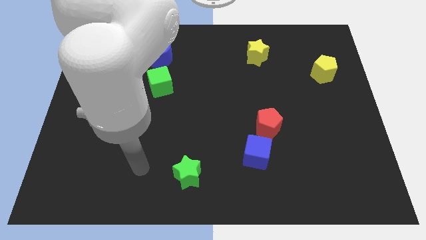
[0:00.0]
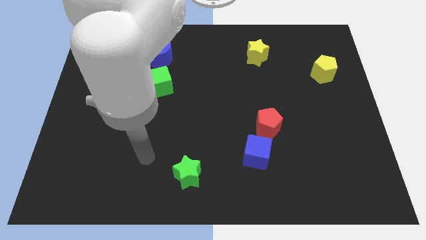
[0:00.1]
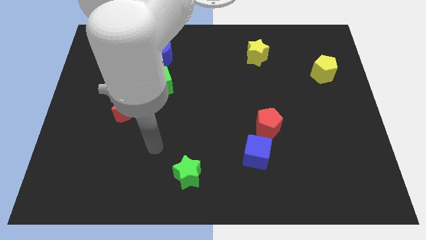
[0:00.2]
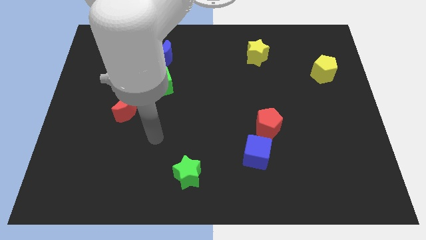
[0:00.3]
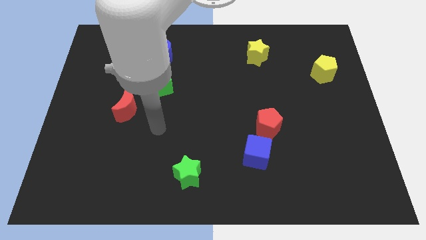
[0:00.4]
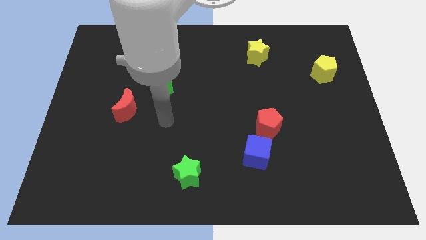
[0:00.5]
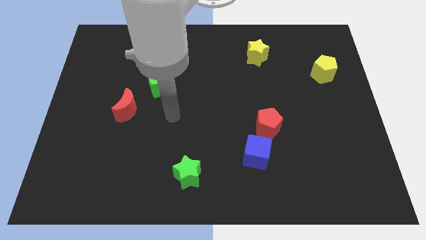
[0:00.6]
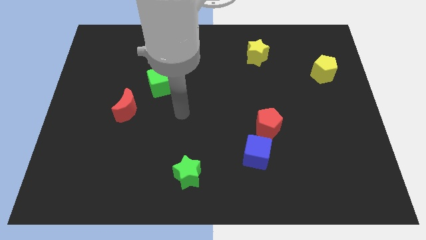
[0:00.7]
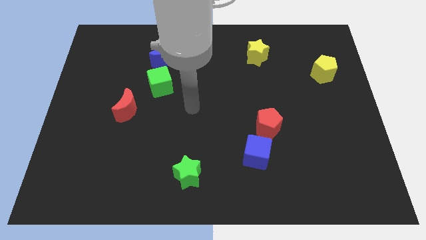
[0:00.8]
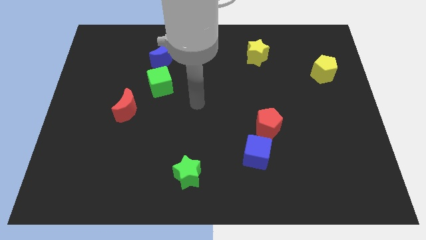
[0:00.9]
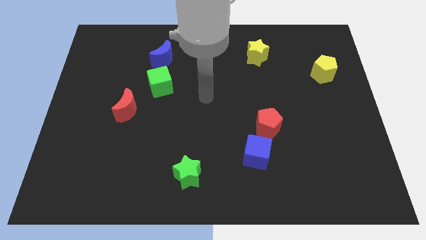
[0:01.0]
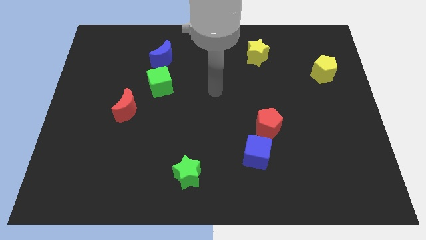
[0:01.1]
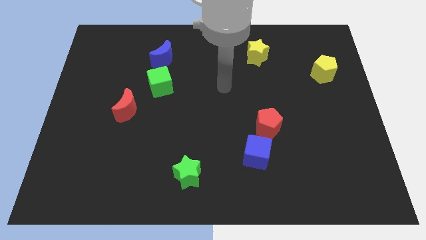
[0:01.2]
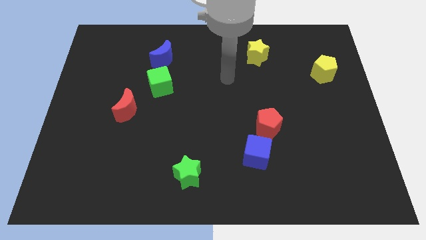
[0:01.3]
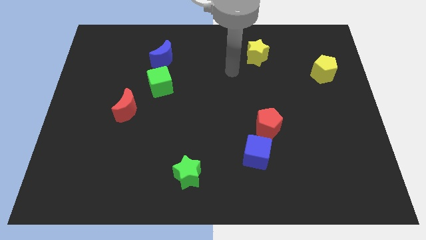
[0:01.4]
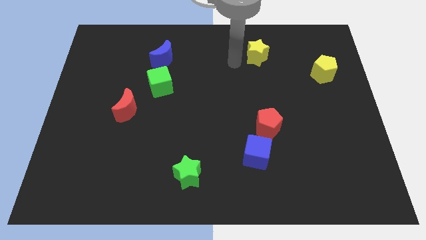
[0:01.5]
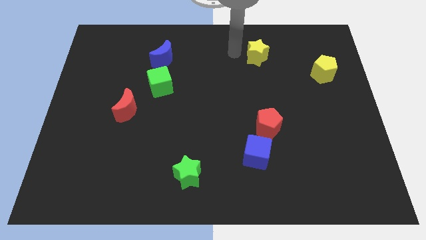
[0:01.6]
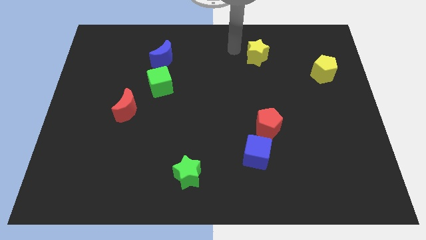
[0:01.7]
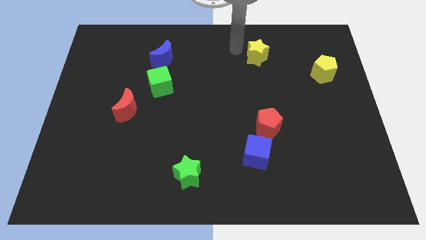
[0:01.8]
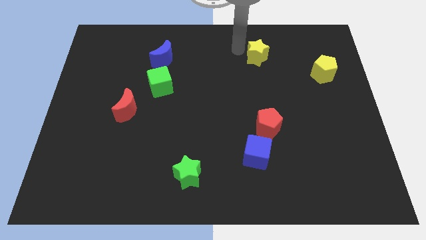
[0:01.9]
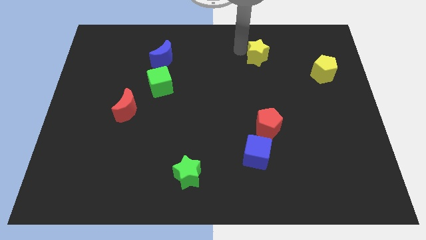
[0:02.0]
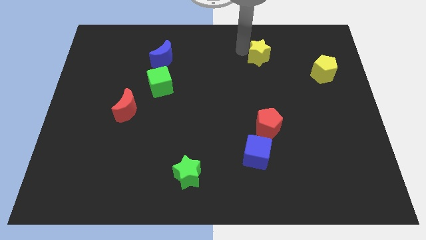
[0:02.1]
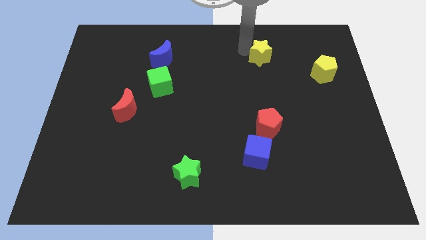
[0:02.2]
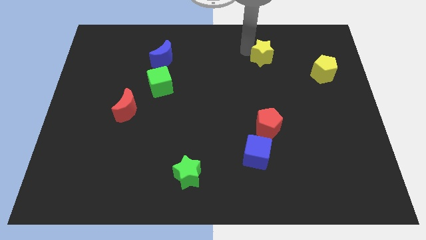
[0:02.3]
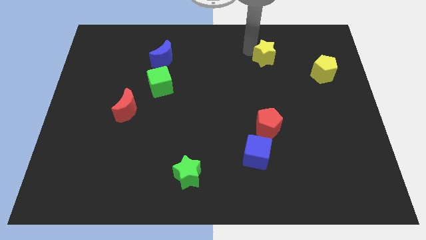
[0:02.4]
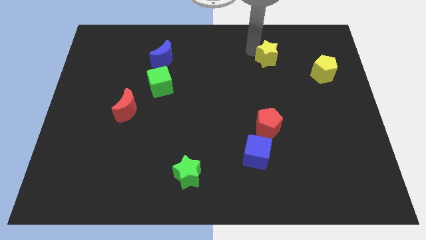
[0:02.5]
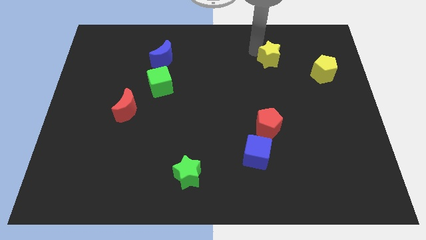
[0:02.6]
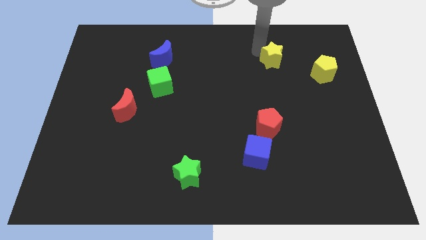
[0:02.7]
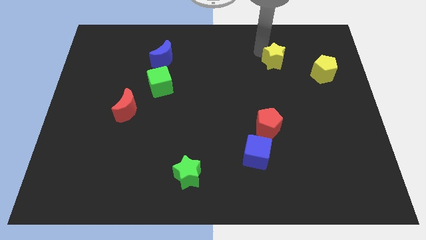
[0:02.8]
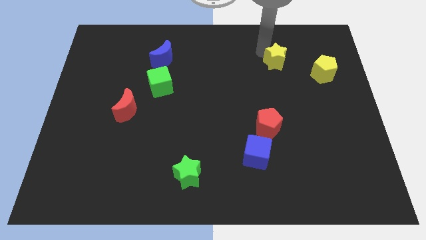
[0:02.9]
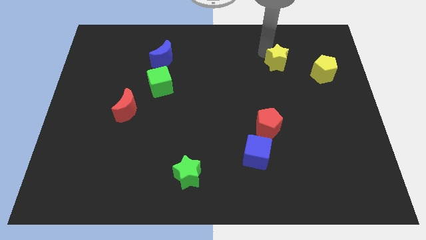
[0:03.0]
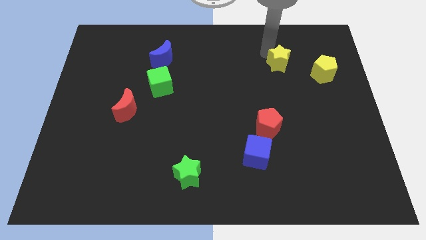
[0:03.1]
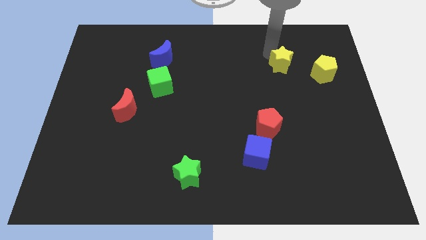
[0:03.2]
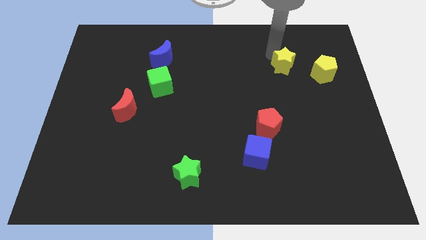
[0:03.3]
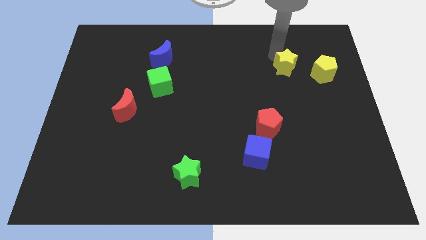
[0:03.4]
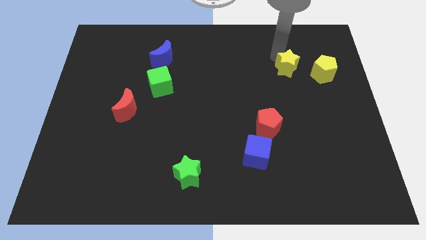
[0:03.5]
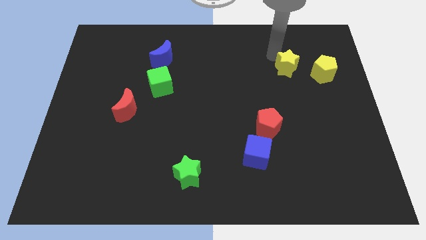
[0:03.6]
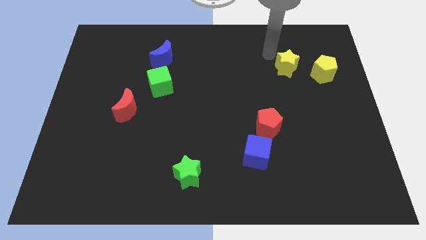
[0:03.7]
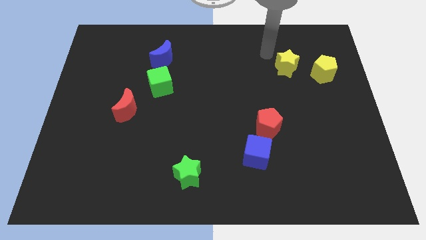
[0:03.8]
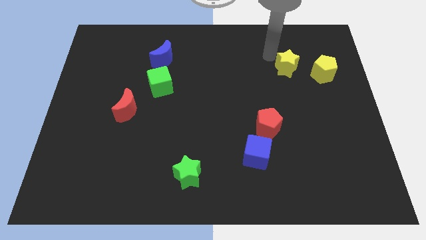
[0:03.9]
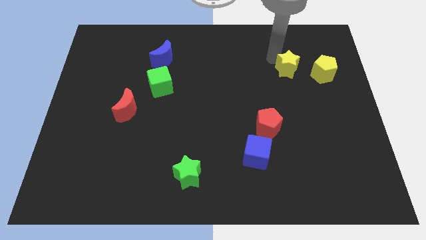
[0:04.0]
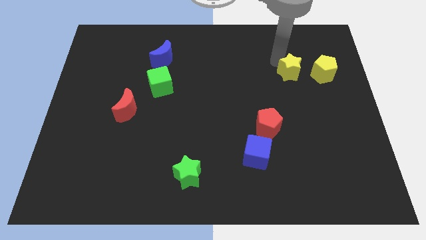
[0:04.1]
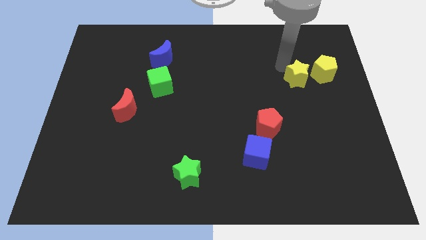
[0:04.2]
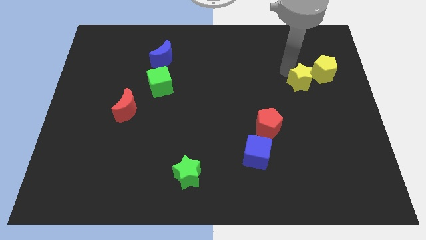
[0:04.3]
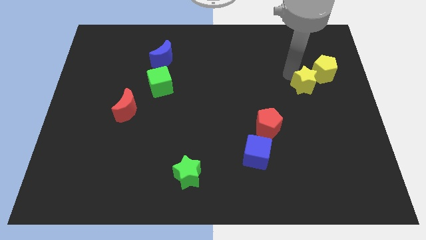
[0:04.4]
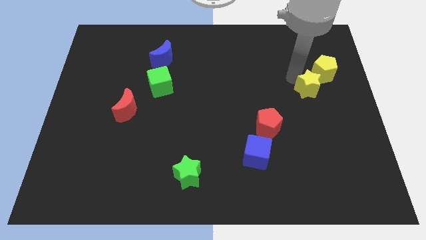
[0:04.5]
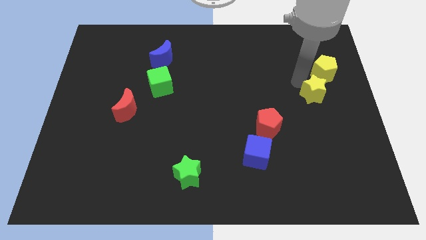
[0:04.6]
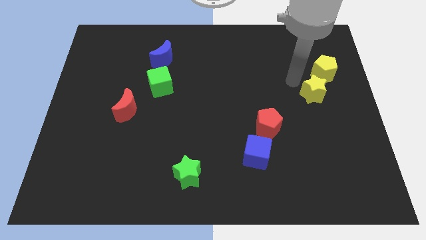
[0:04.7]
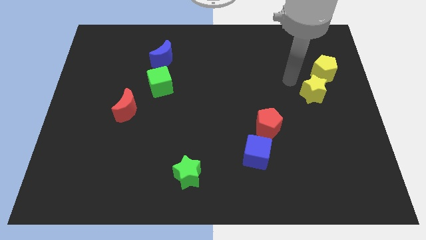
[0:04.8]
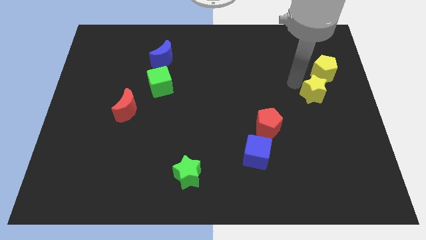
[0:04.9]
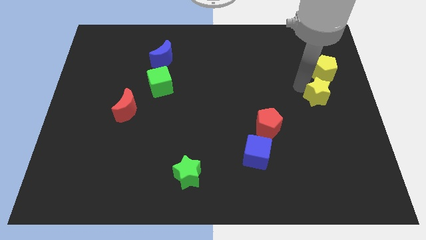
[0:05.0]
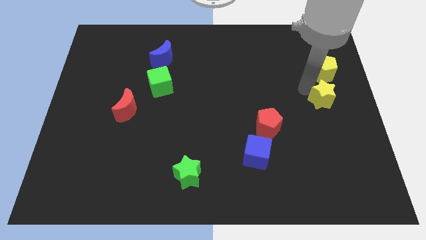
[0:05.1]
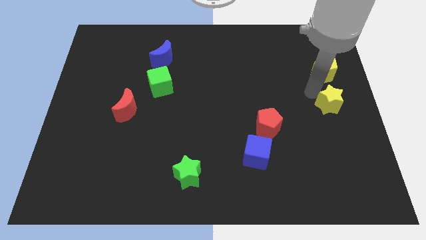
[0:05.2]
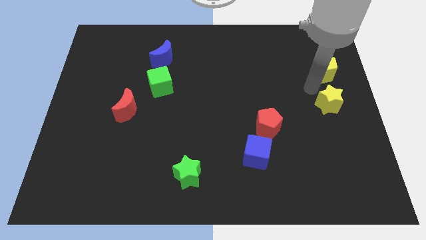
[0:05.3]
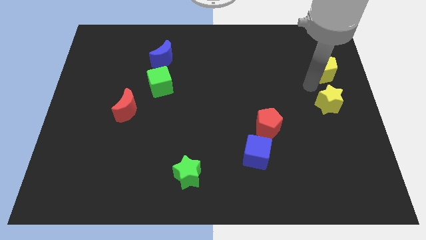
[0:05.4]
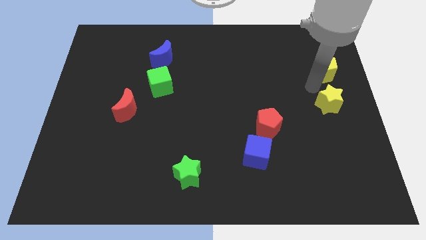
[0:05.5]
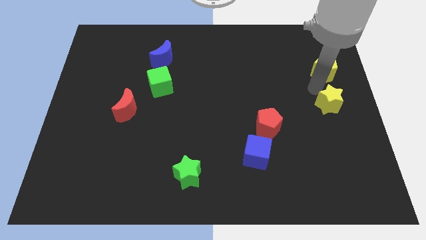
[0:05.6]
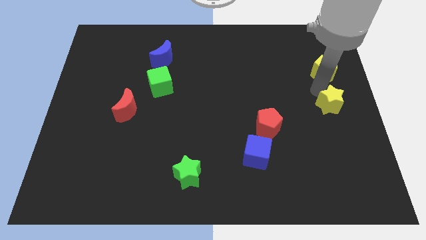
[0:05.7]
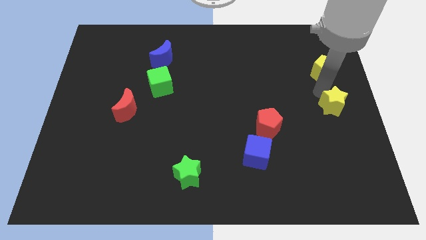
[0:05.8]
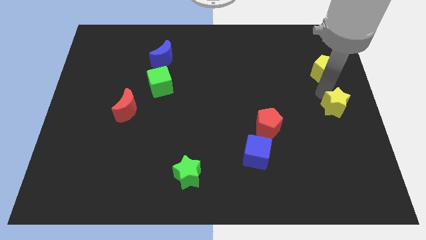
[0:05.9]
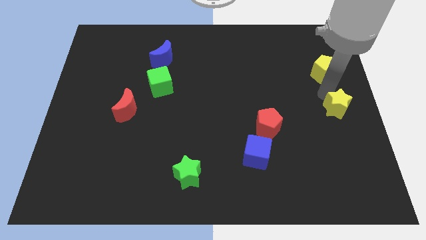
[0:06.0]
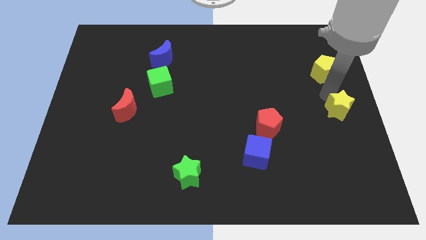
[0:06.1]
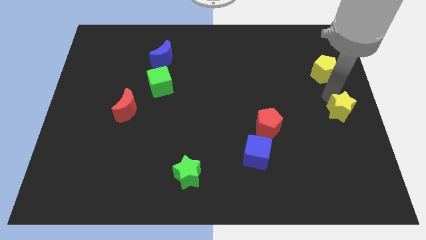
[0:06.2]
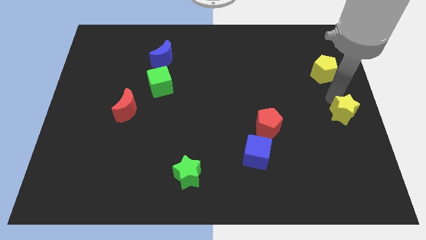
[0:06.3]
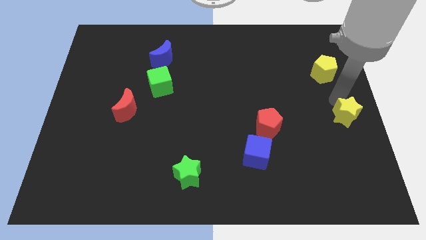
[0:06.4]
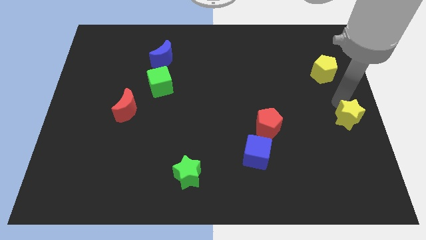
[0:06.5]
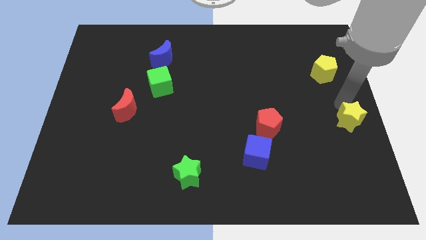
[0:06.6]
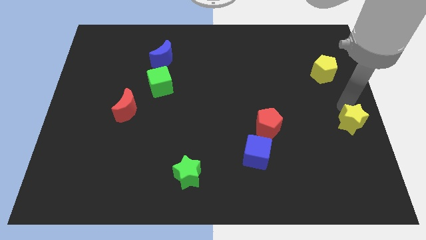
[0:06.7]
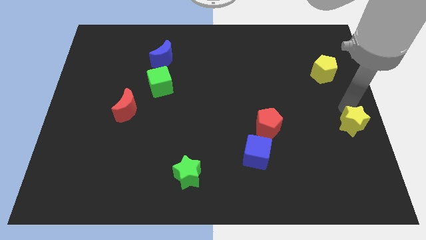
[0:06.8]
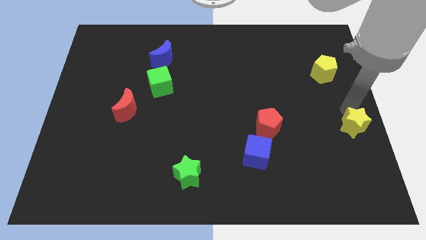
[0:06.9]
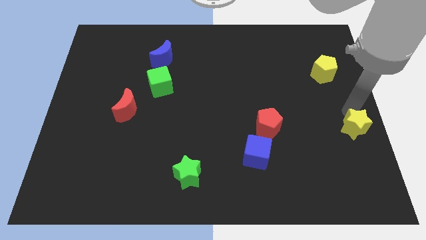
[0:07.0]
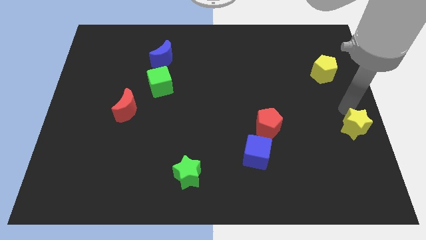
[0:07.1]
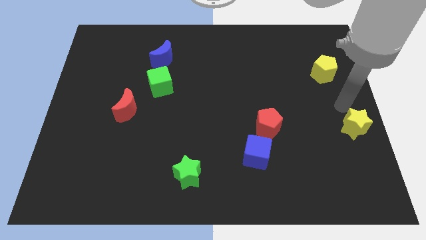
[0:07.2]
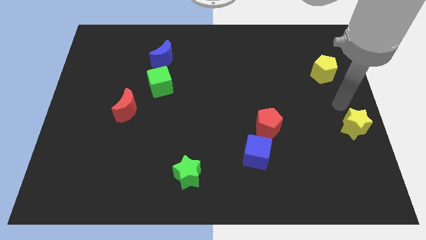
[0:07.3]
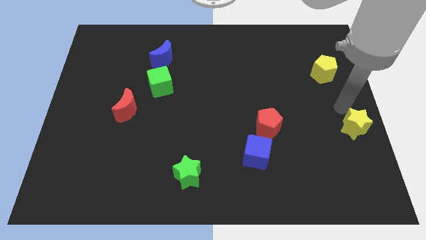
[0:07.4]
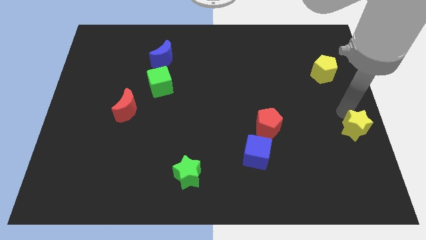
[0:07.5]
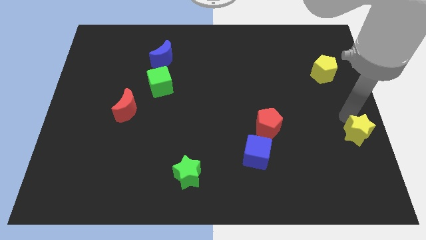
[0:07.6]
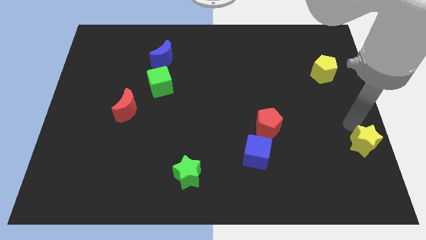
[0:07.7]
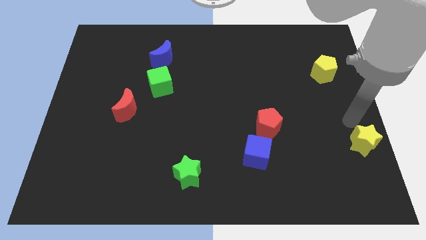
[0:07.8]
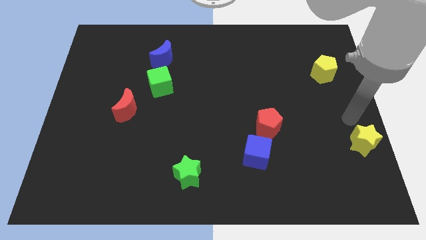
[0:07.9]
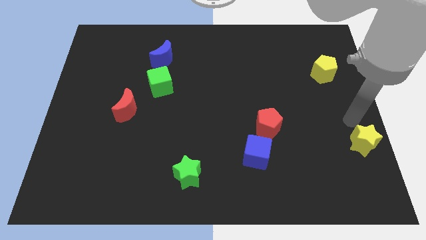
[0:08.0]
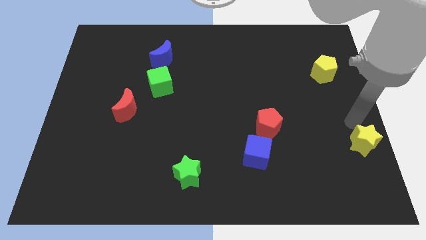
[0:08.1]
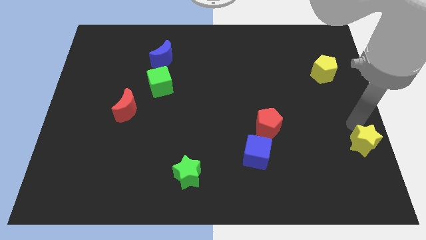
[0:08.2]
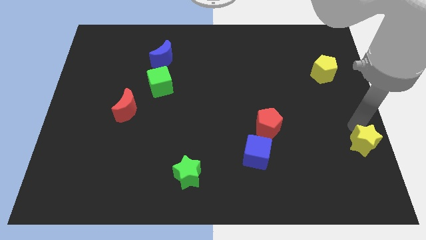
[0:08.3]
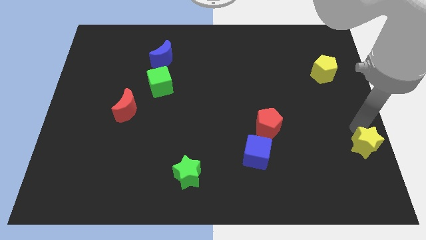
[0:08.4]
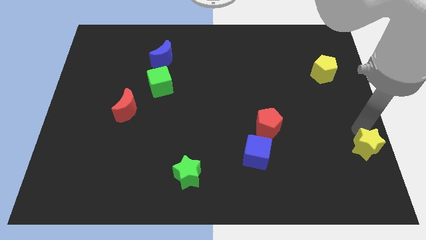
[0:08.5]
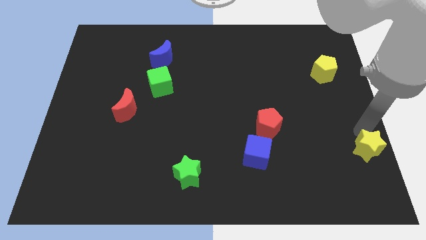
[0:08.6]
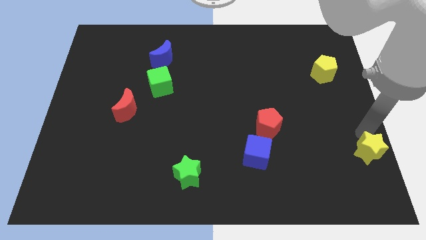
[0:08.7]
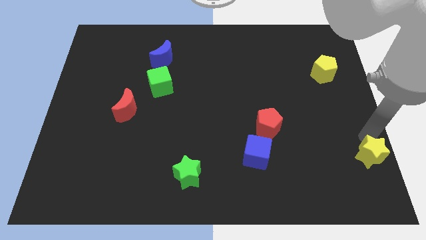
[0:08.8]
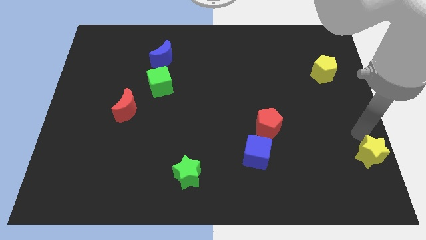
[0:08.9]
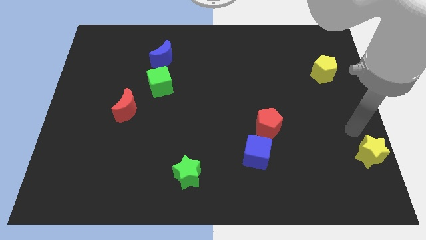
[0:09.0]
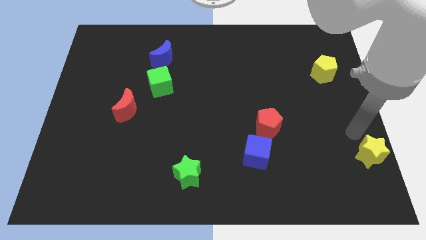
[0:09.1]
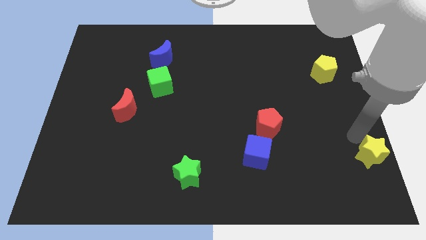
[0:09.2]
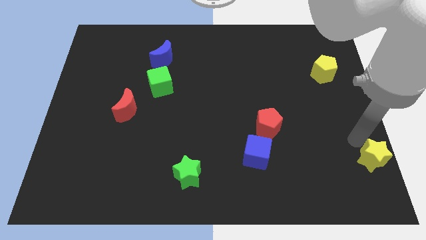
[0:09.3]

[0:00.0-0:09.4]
slide the yellow star to the bottom right
